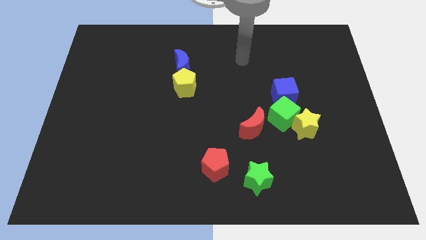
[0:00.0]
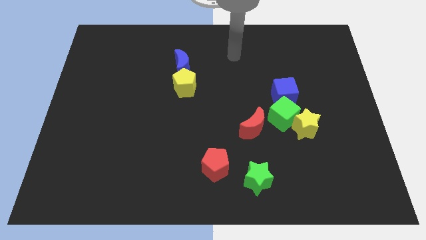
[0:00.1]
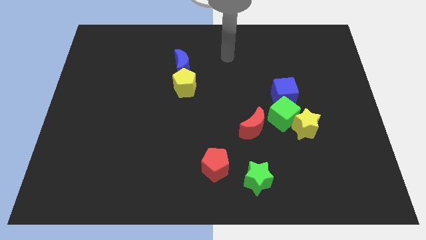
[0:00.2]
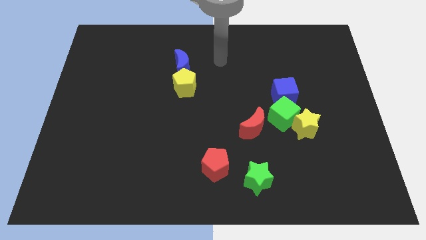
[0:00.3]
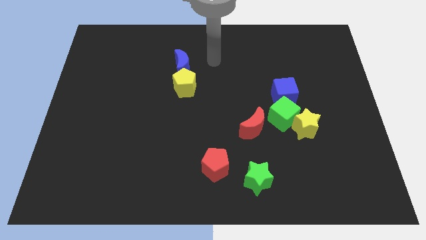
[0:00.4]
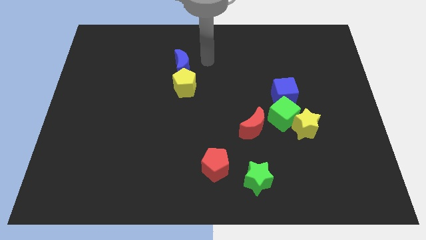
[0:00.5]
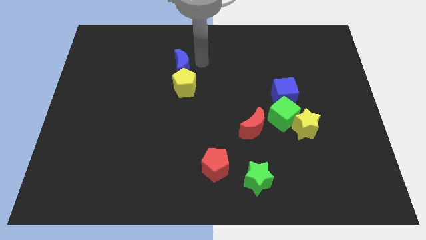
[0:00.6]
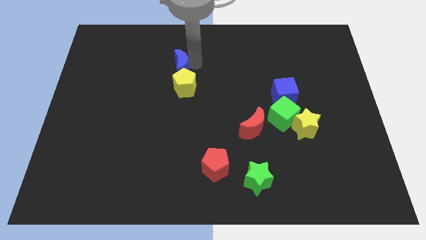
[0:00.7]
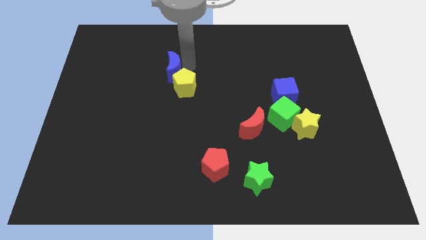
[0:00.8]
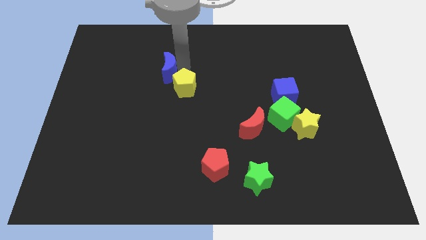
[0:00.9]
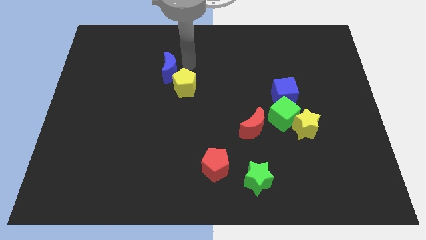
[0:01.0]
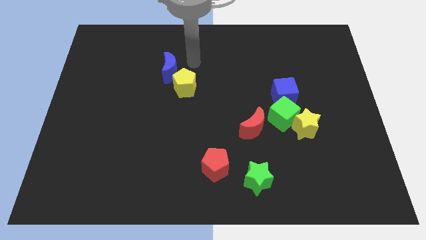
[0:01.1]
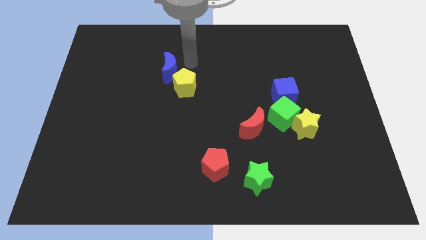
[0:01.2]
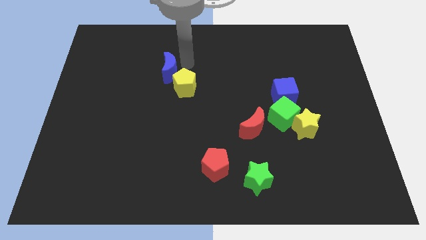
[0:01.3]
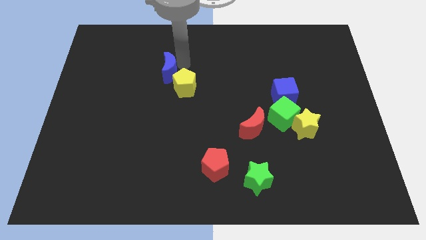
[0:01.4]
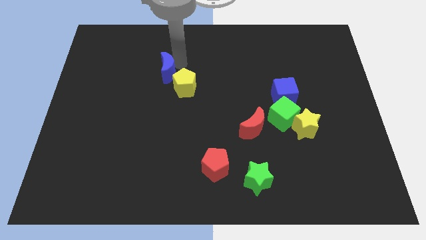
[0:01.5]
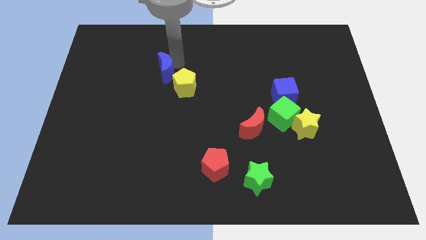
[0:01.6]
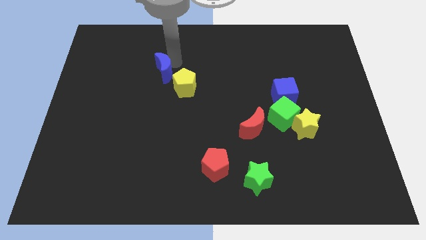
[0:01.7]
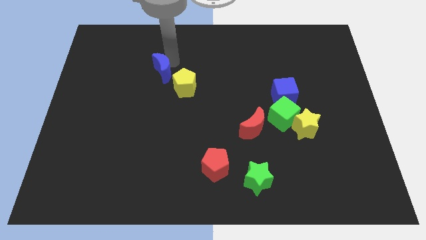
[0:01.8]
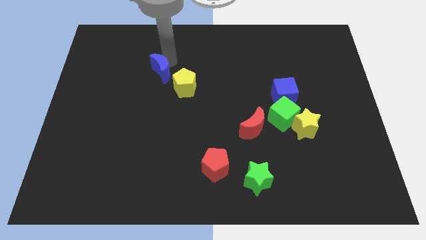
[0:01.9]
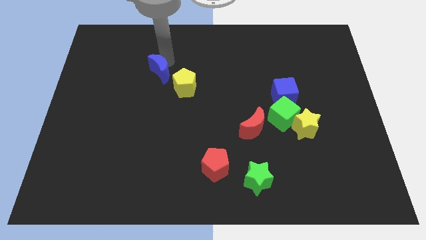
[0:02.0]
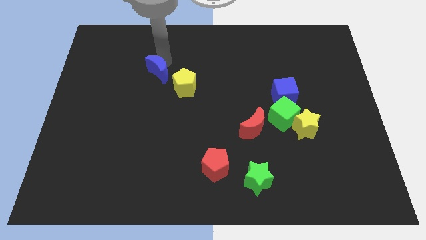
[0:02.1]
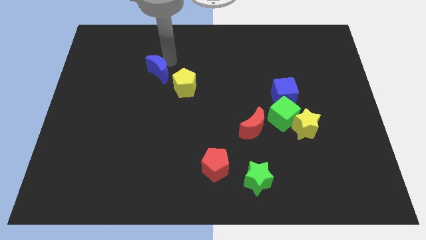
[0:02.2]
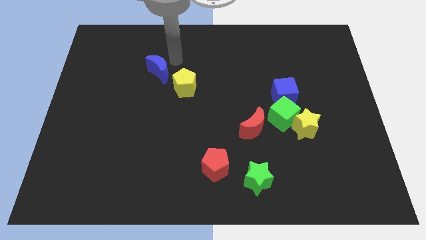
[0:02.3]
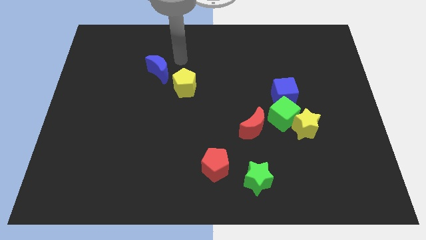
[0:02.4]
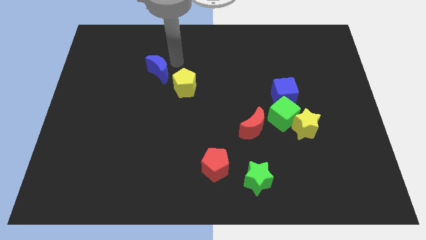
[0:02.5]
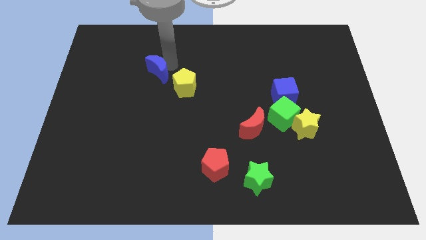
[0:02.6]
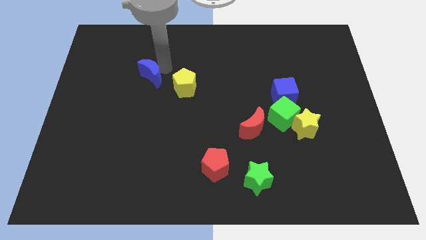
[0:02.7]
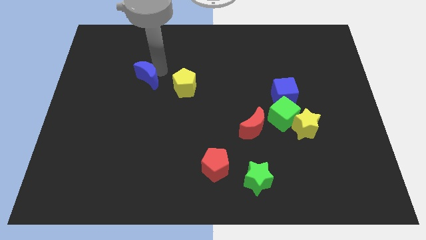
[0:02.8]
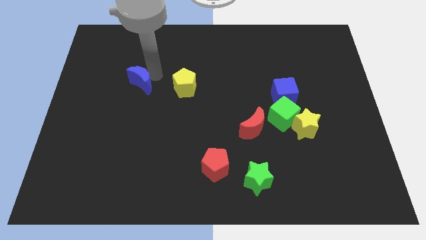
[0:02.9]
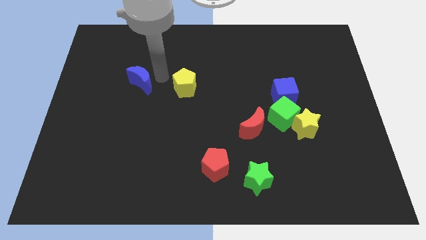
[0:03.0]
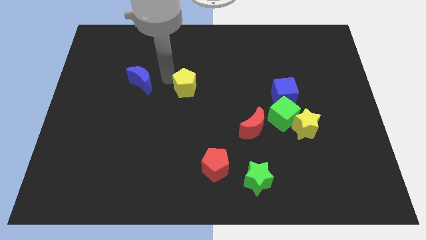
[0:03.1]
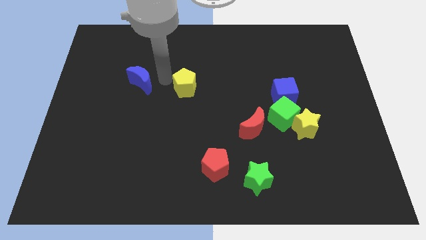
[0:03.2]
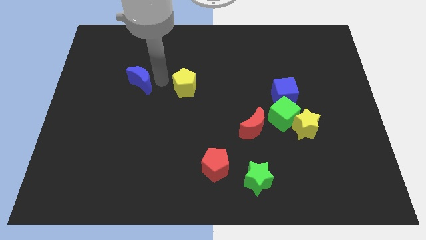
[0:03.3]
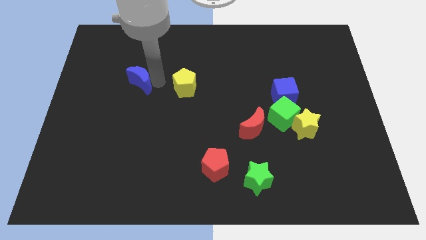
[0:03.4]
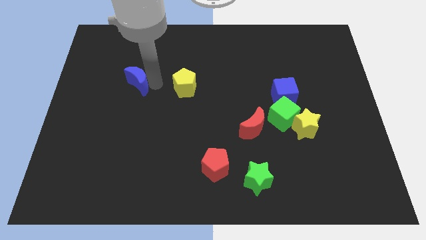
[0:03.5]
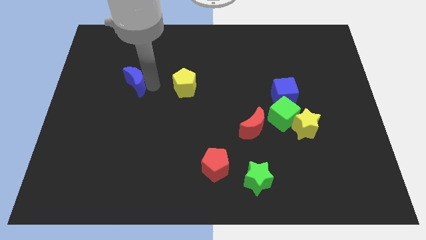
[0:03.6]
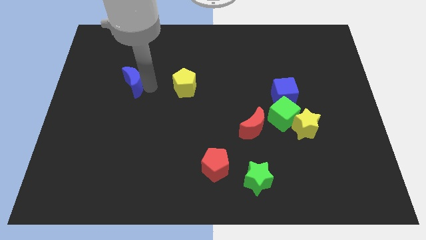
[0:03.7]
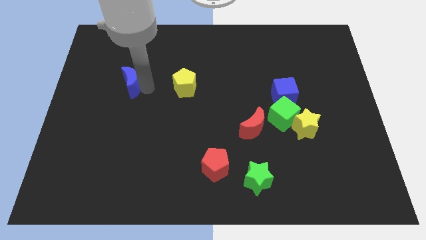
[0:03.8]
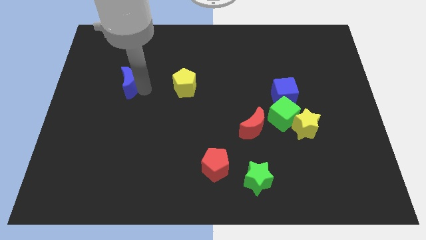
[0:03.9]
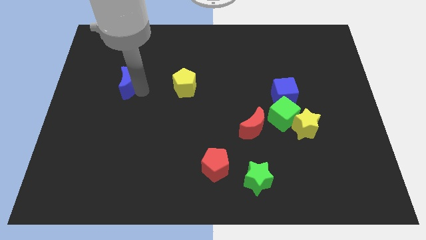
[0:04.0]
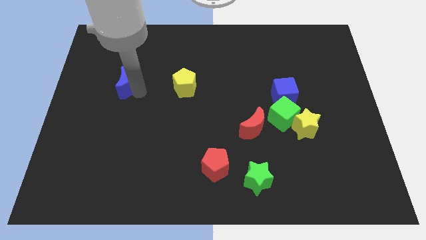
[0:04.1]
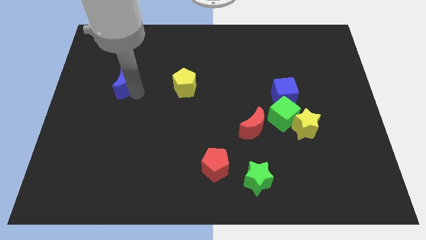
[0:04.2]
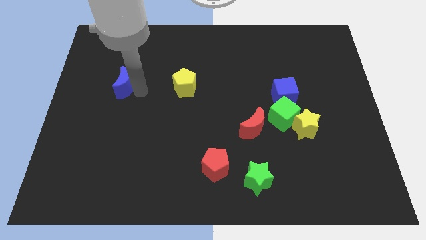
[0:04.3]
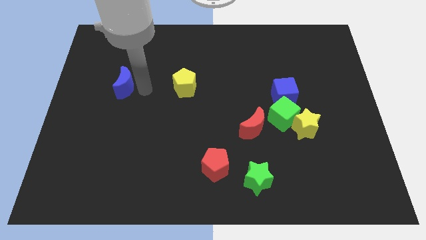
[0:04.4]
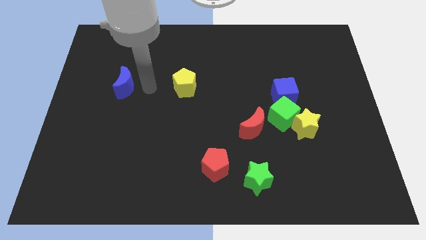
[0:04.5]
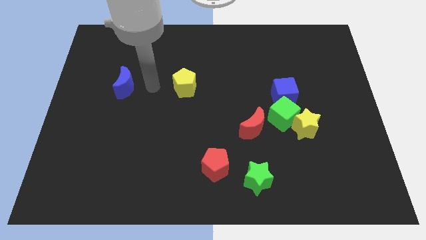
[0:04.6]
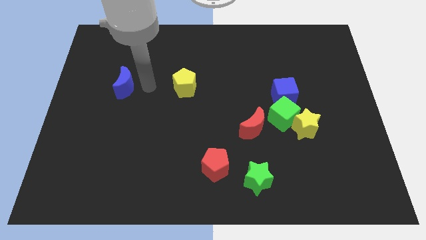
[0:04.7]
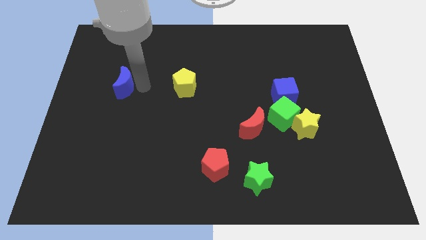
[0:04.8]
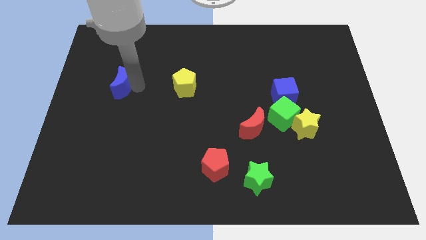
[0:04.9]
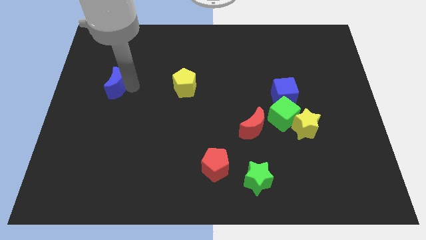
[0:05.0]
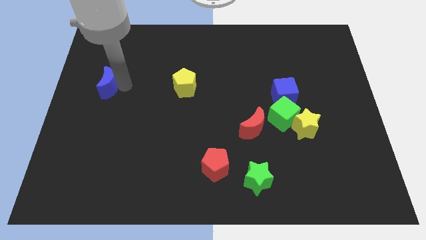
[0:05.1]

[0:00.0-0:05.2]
push the blue moon to the left side of the board
